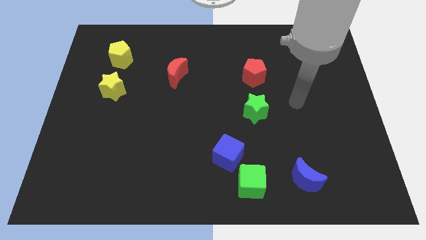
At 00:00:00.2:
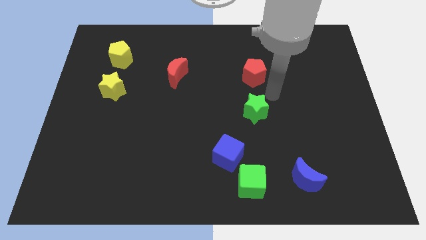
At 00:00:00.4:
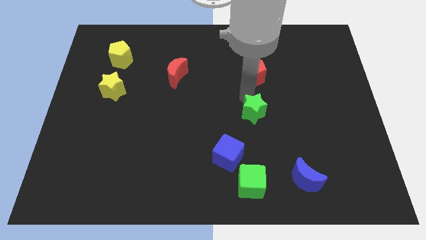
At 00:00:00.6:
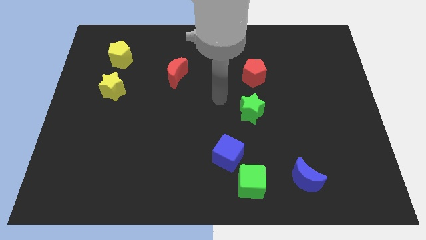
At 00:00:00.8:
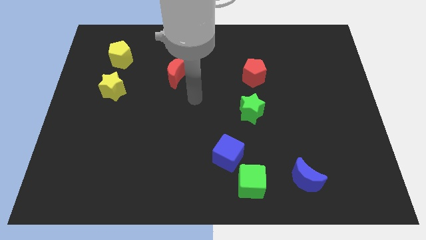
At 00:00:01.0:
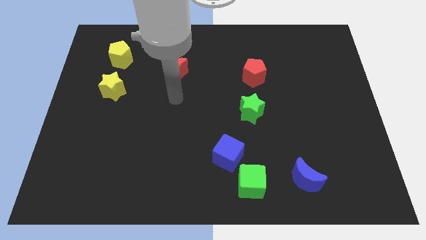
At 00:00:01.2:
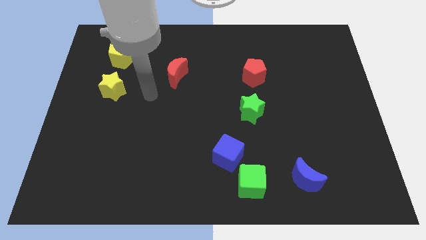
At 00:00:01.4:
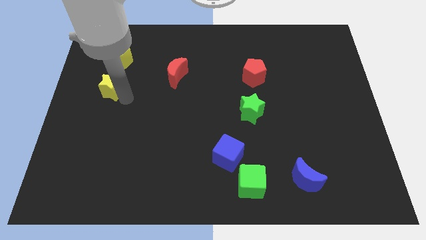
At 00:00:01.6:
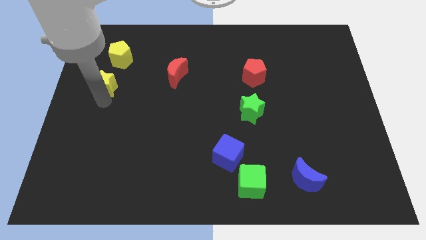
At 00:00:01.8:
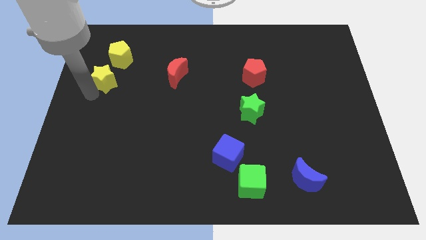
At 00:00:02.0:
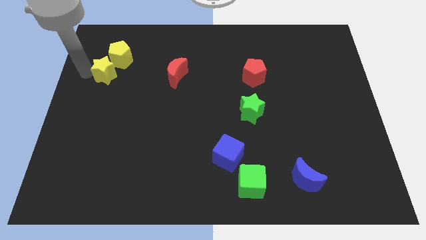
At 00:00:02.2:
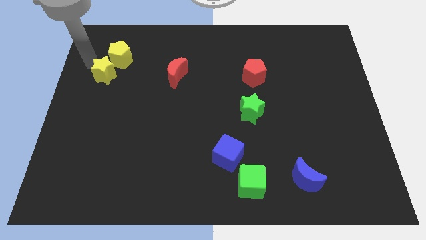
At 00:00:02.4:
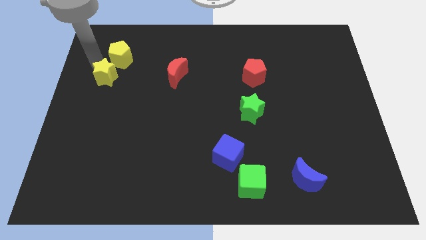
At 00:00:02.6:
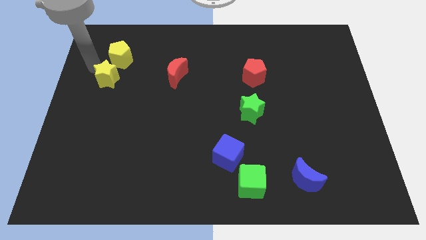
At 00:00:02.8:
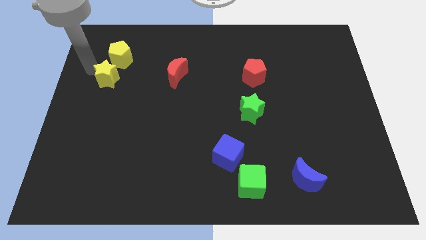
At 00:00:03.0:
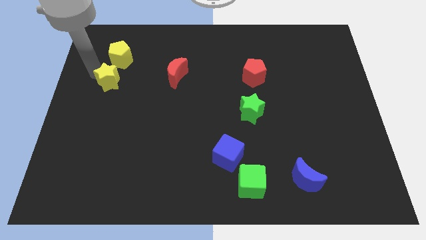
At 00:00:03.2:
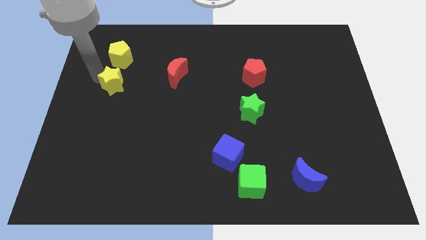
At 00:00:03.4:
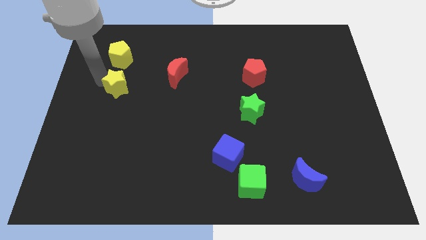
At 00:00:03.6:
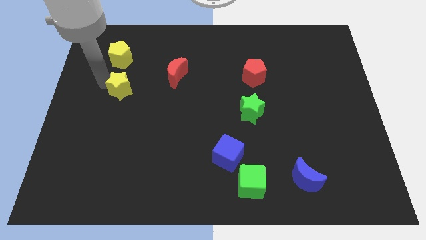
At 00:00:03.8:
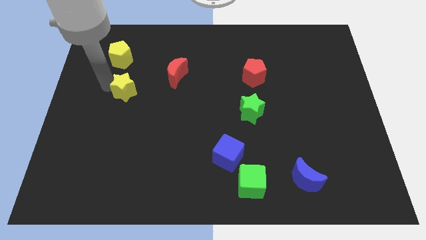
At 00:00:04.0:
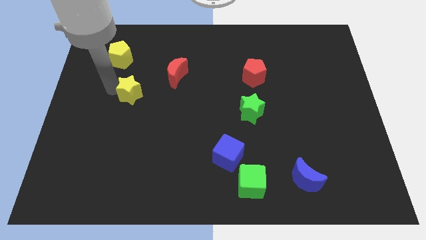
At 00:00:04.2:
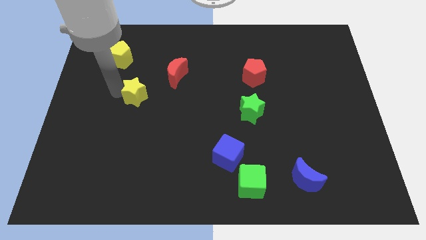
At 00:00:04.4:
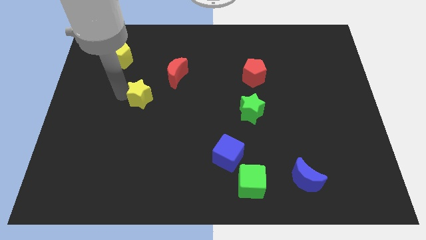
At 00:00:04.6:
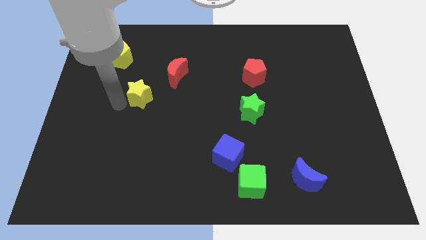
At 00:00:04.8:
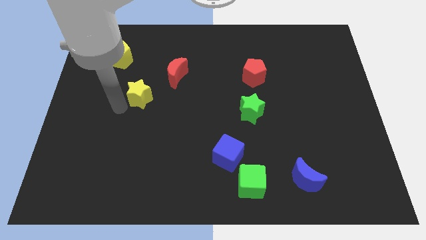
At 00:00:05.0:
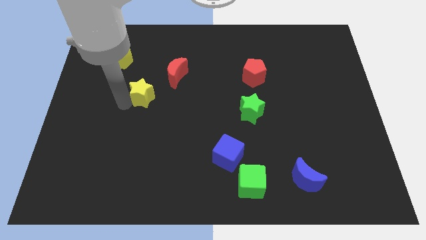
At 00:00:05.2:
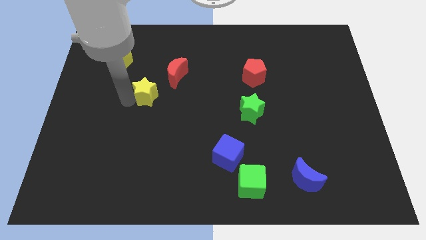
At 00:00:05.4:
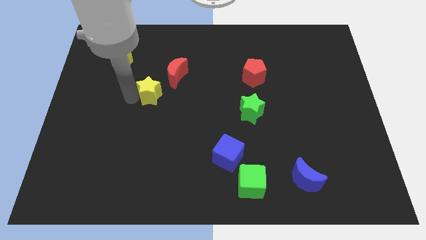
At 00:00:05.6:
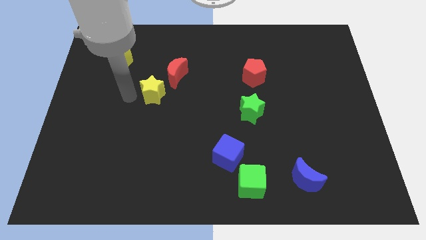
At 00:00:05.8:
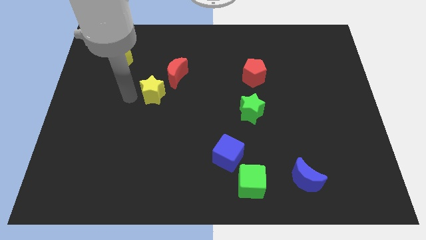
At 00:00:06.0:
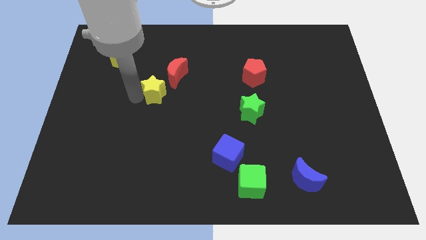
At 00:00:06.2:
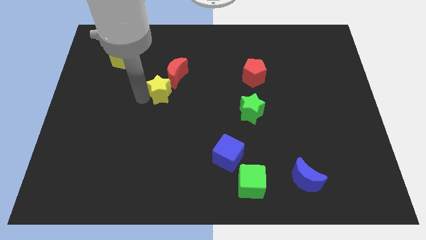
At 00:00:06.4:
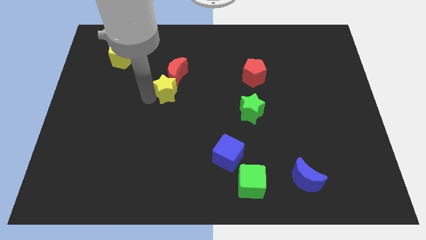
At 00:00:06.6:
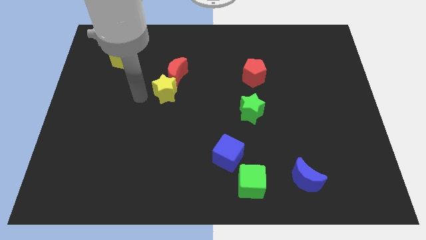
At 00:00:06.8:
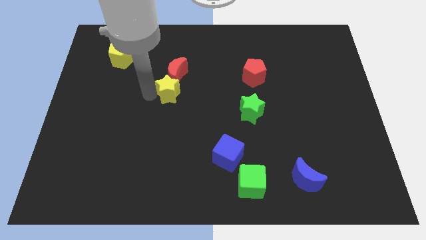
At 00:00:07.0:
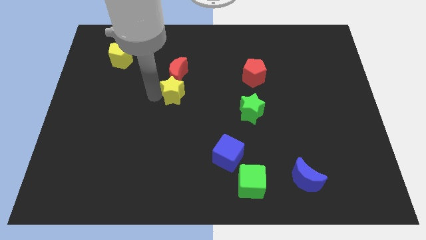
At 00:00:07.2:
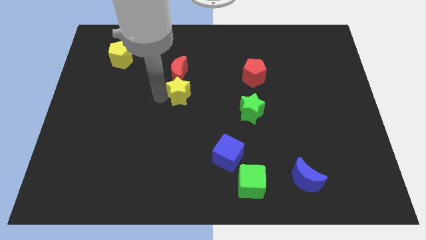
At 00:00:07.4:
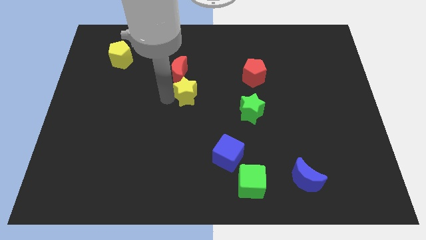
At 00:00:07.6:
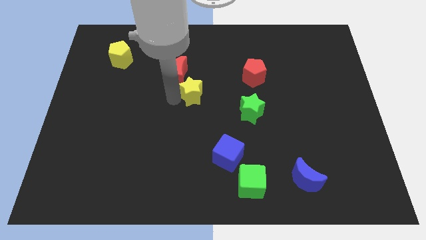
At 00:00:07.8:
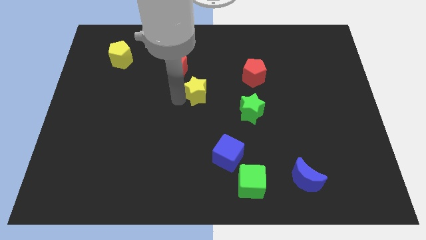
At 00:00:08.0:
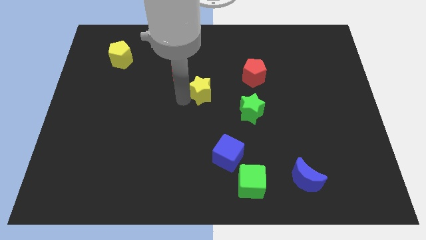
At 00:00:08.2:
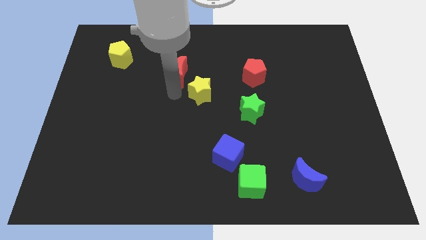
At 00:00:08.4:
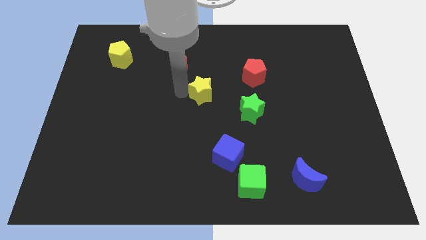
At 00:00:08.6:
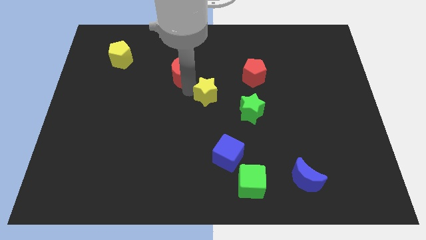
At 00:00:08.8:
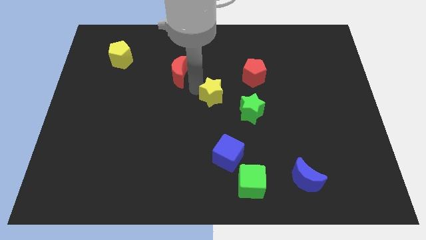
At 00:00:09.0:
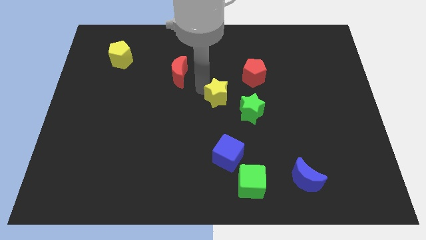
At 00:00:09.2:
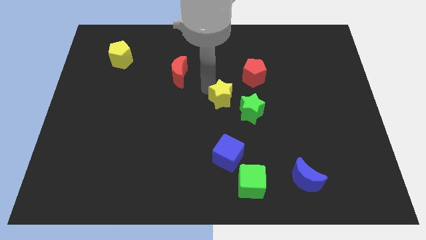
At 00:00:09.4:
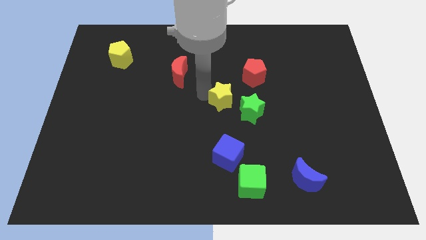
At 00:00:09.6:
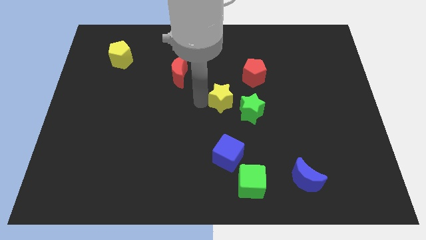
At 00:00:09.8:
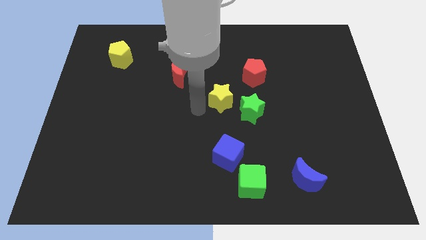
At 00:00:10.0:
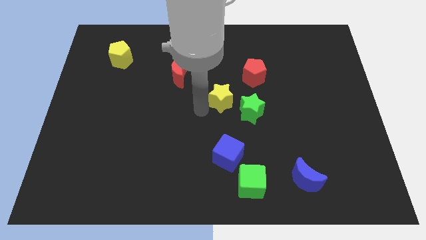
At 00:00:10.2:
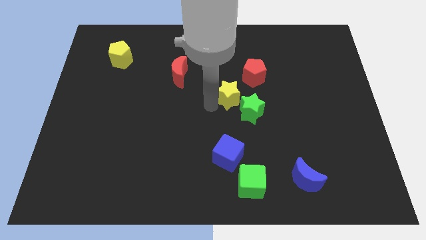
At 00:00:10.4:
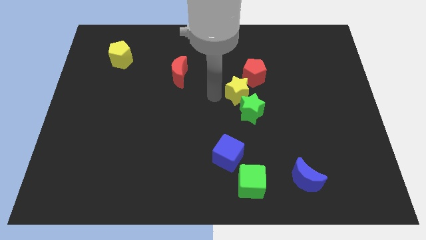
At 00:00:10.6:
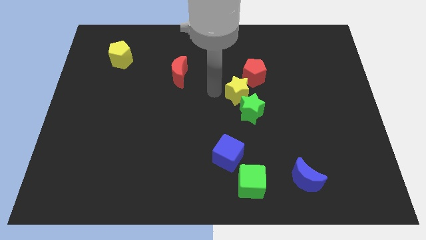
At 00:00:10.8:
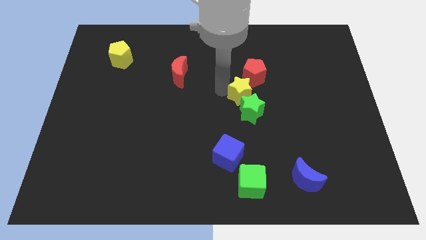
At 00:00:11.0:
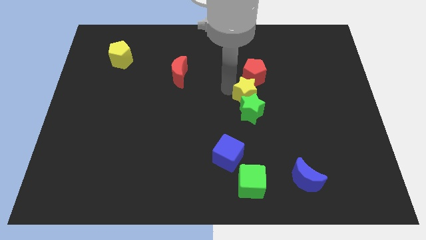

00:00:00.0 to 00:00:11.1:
put the yellow star to the top right side of the green star
